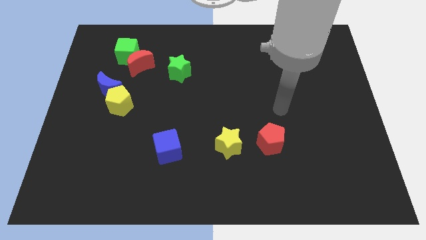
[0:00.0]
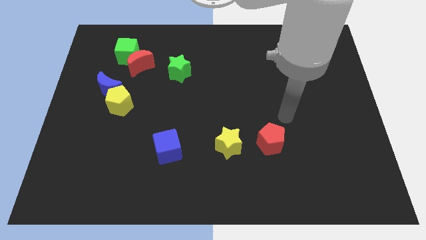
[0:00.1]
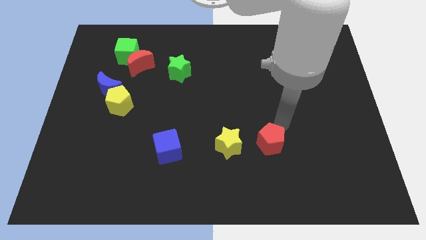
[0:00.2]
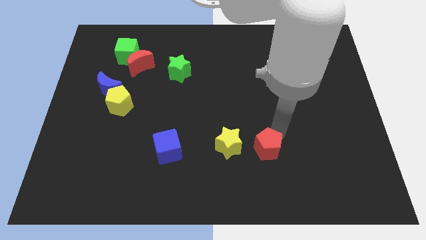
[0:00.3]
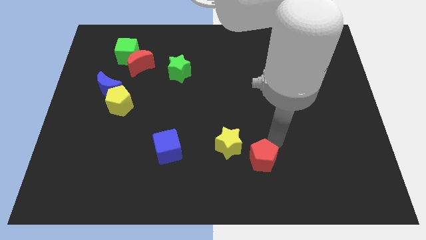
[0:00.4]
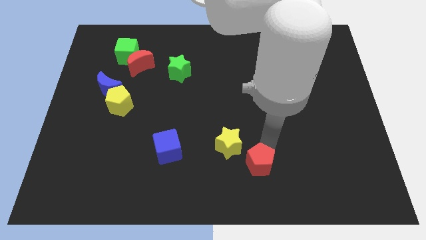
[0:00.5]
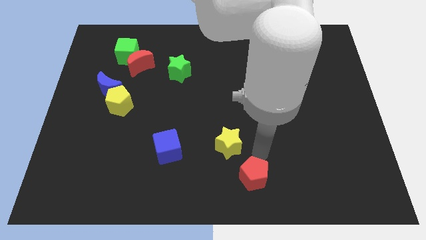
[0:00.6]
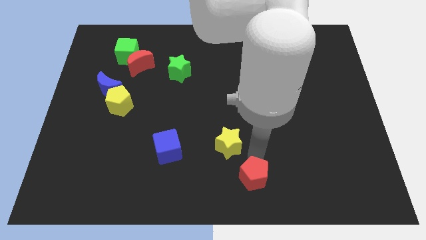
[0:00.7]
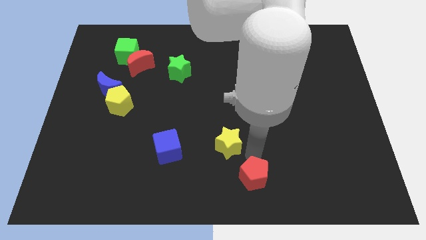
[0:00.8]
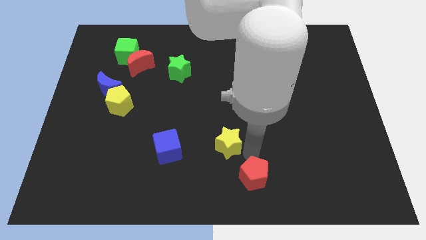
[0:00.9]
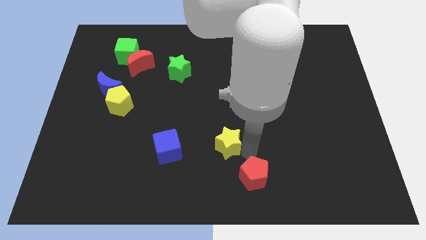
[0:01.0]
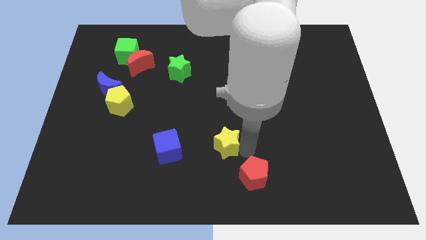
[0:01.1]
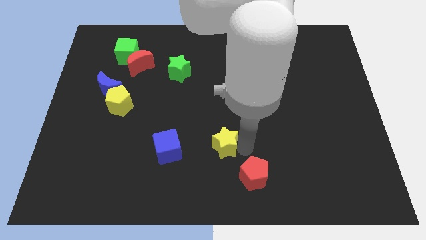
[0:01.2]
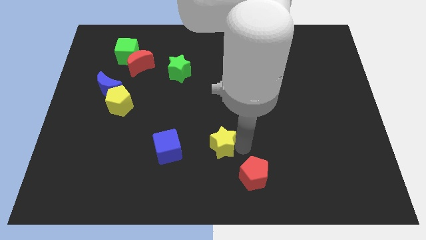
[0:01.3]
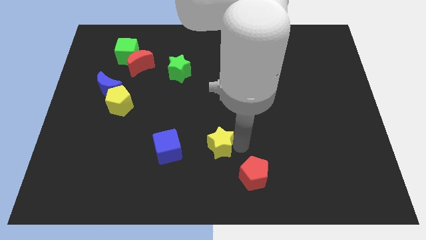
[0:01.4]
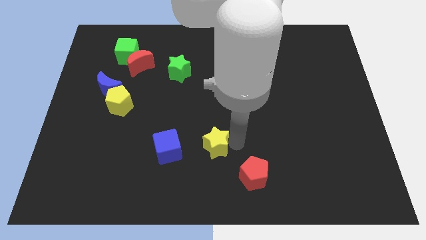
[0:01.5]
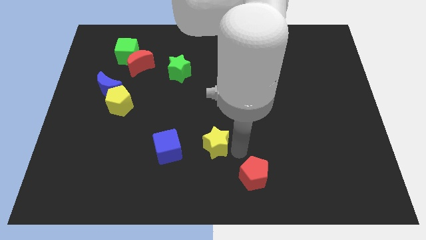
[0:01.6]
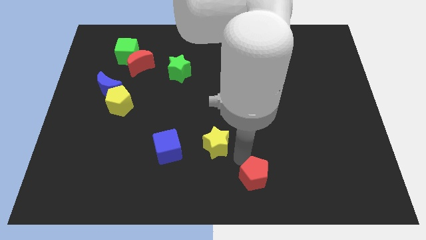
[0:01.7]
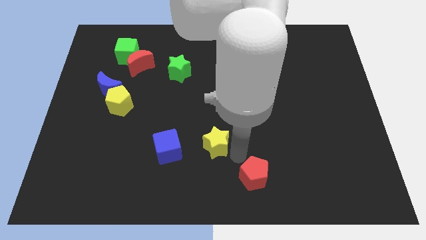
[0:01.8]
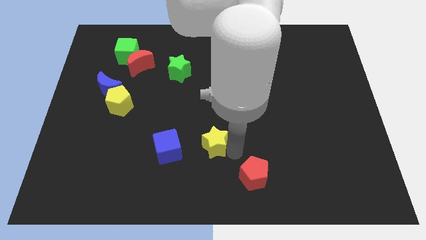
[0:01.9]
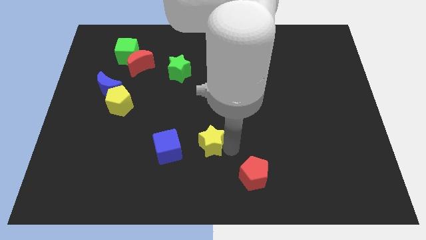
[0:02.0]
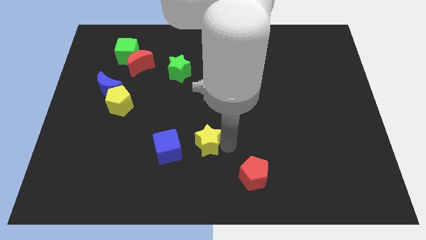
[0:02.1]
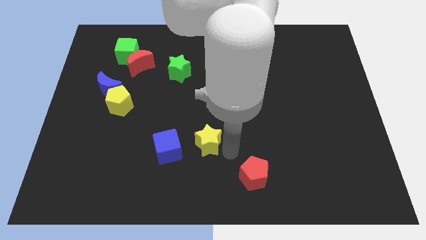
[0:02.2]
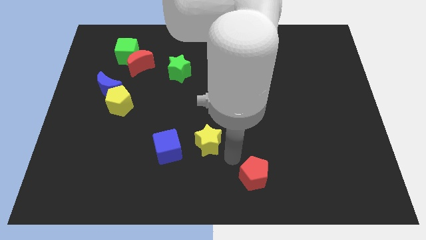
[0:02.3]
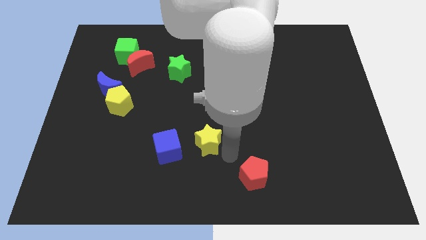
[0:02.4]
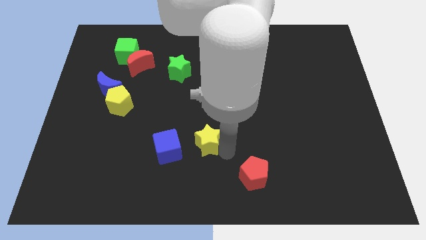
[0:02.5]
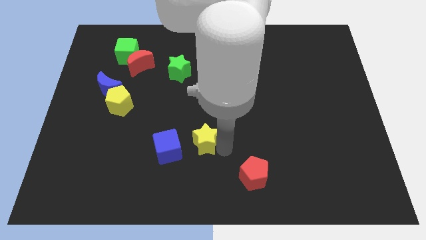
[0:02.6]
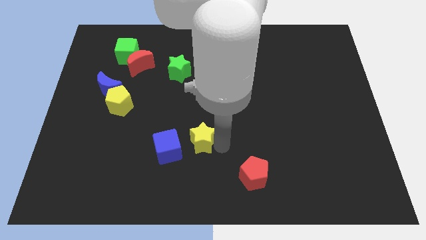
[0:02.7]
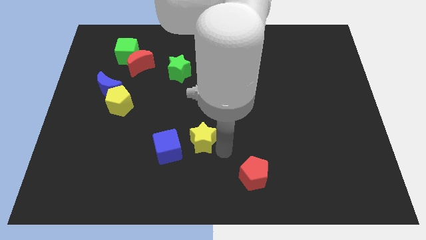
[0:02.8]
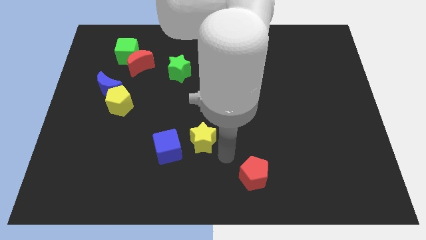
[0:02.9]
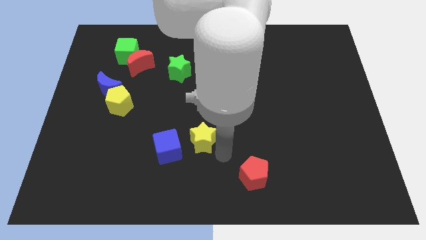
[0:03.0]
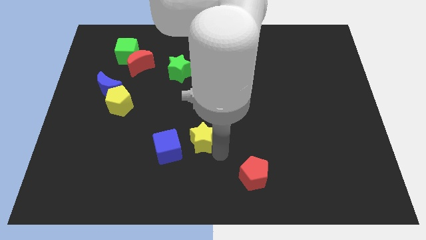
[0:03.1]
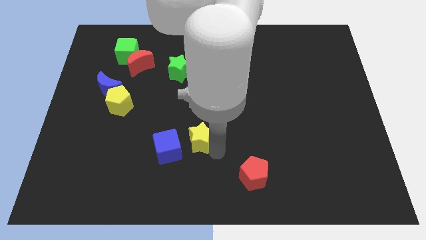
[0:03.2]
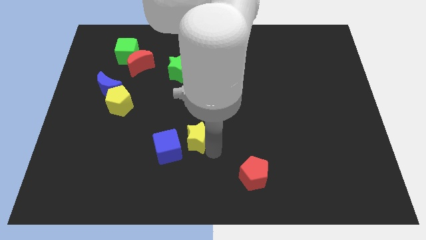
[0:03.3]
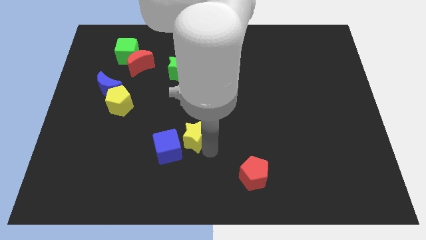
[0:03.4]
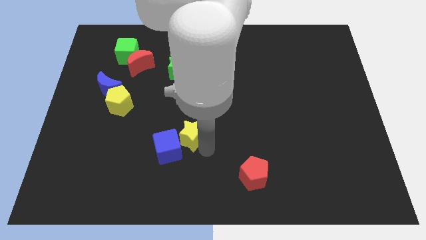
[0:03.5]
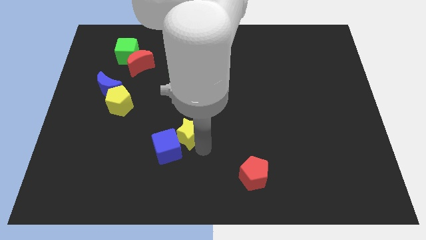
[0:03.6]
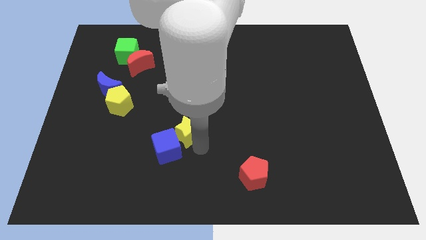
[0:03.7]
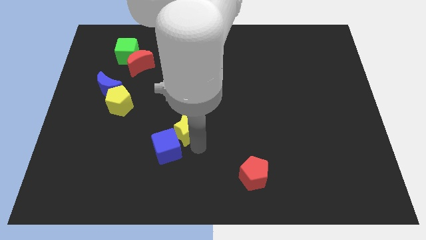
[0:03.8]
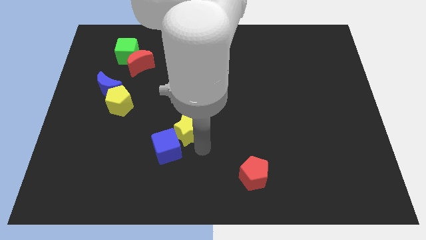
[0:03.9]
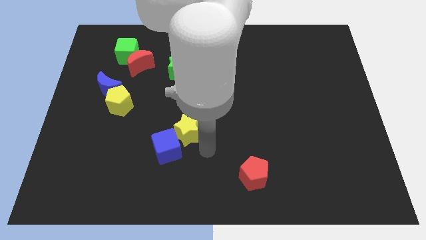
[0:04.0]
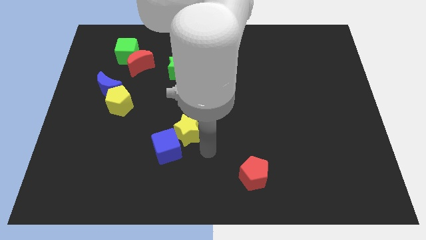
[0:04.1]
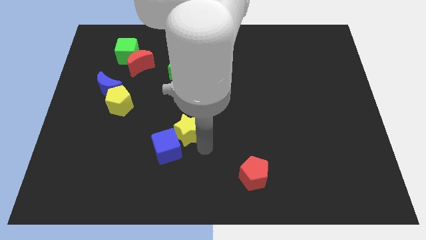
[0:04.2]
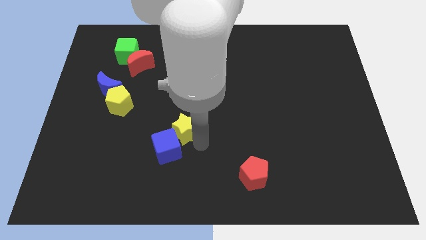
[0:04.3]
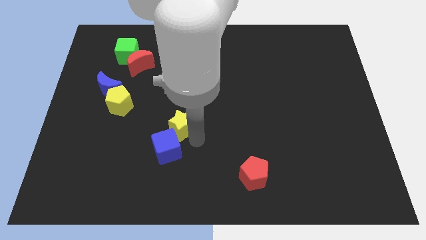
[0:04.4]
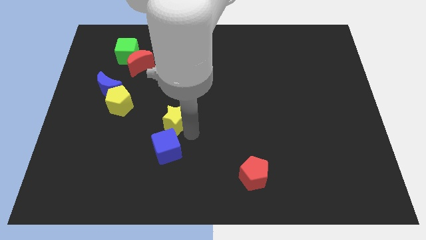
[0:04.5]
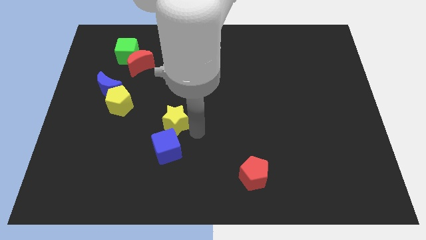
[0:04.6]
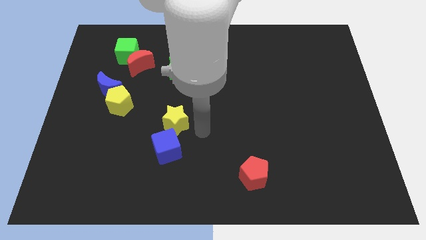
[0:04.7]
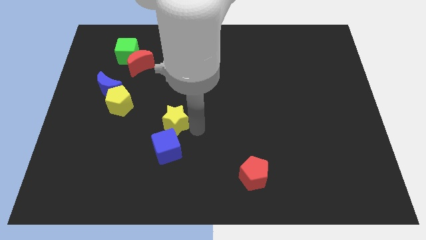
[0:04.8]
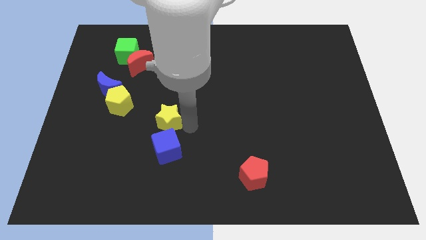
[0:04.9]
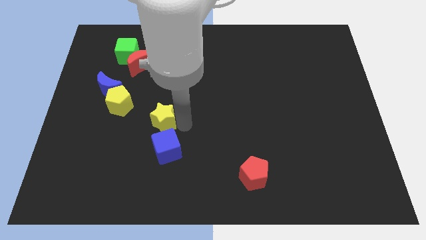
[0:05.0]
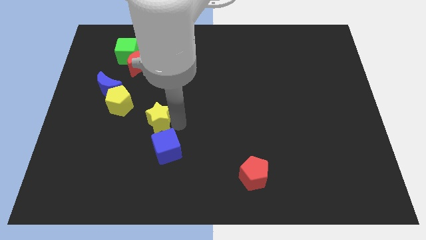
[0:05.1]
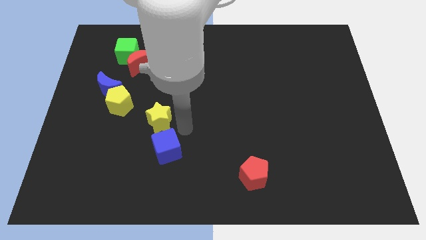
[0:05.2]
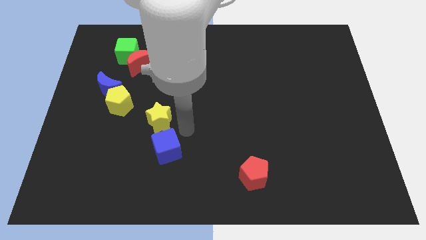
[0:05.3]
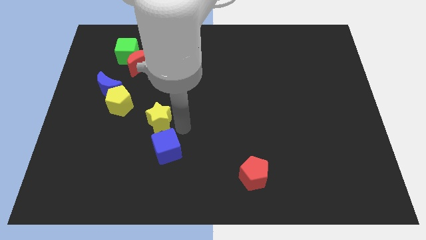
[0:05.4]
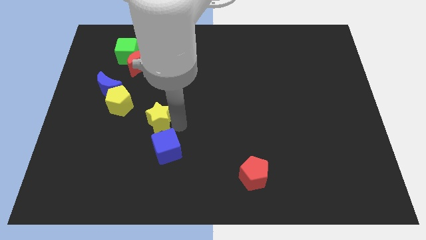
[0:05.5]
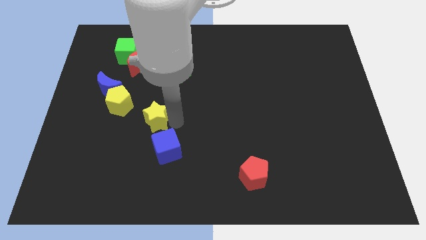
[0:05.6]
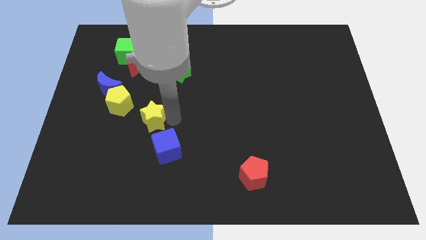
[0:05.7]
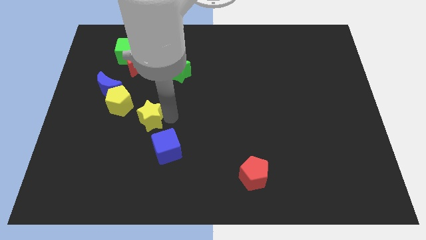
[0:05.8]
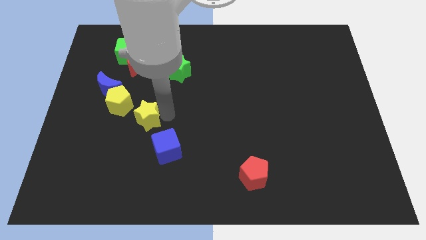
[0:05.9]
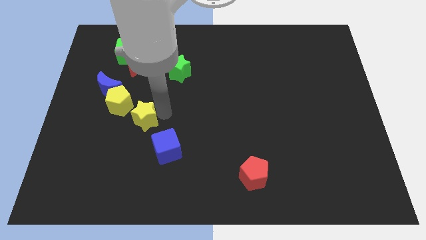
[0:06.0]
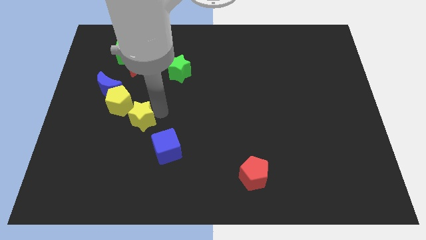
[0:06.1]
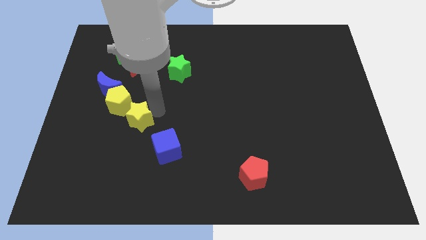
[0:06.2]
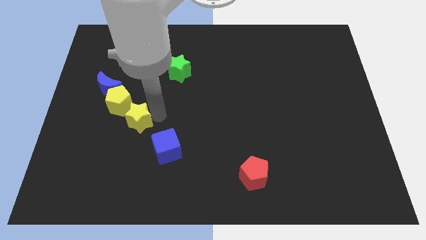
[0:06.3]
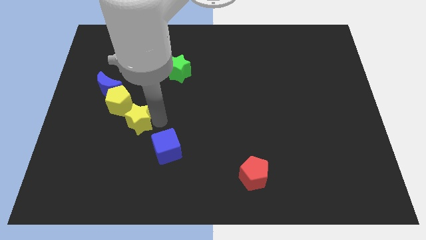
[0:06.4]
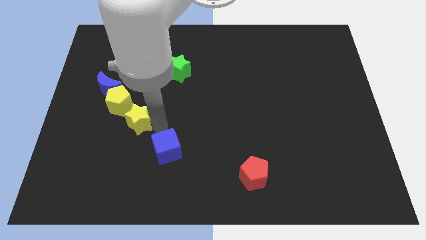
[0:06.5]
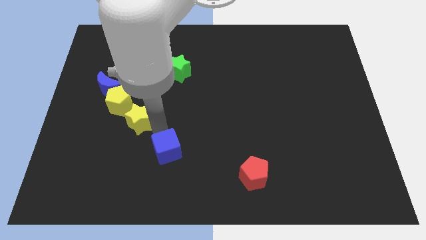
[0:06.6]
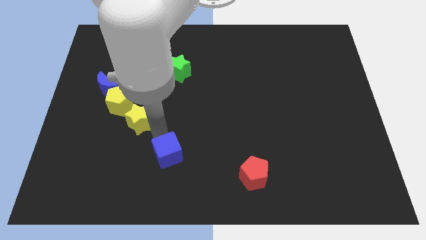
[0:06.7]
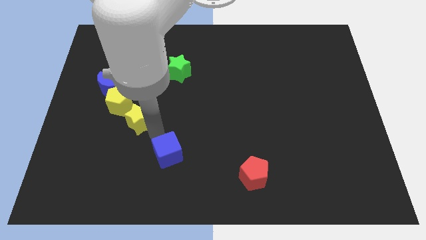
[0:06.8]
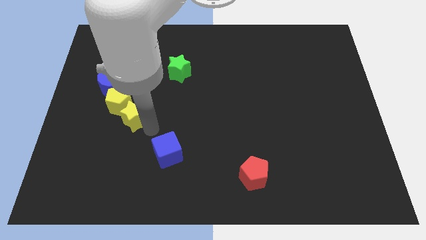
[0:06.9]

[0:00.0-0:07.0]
push the yellow star close to the yellow pentagon

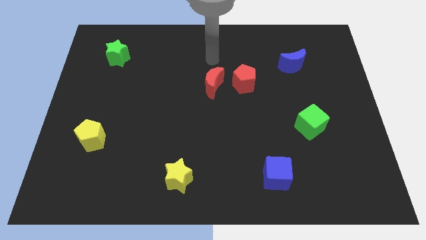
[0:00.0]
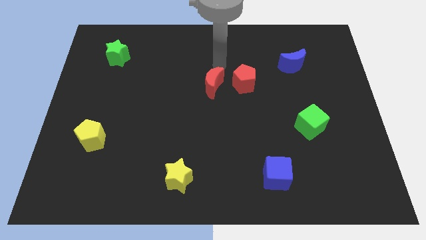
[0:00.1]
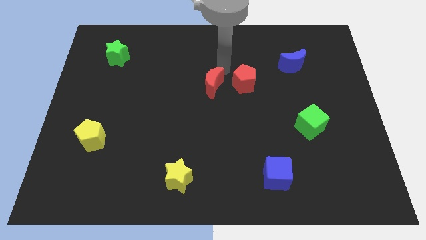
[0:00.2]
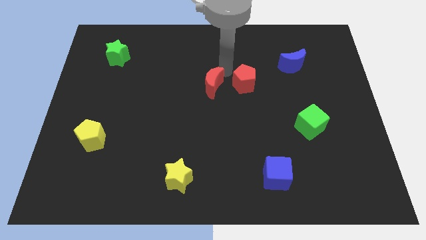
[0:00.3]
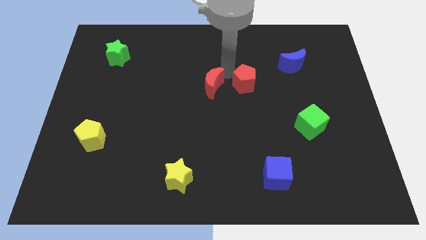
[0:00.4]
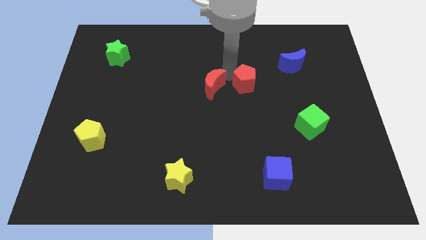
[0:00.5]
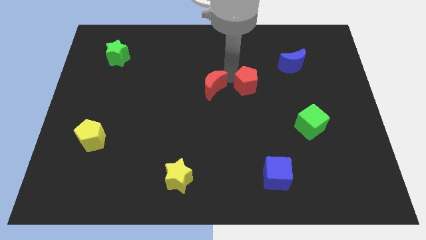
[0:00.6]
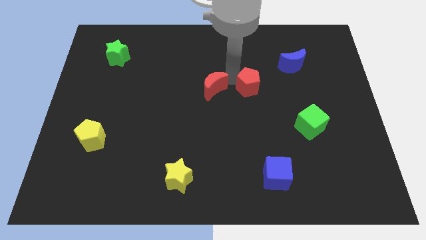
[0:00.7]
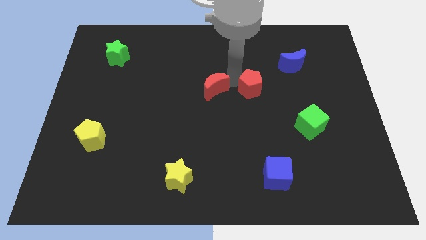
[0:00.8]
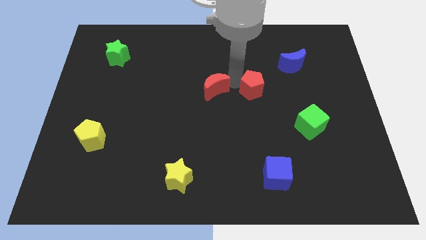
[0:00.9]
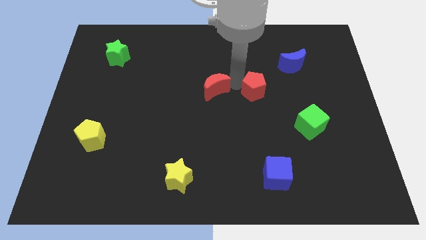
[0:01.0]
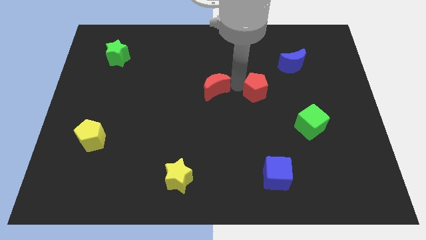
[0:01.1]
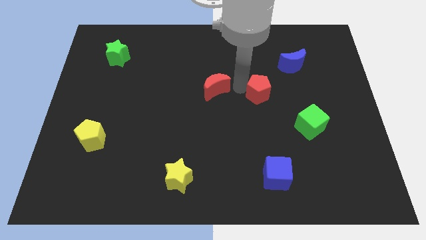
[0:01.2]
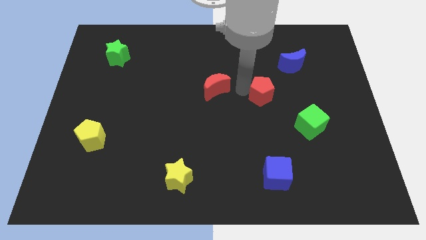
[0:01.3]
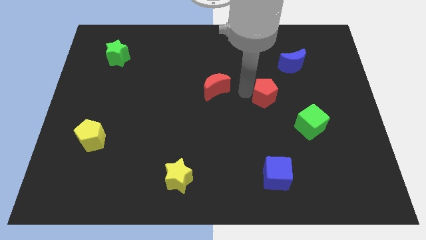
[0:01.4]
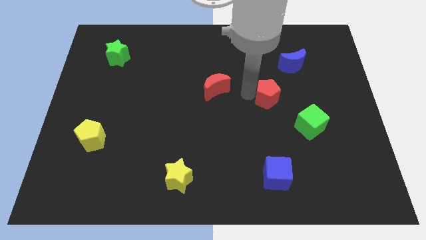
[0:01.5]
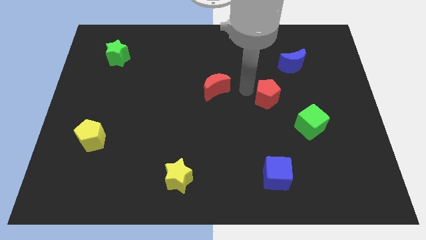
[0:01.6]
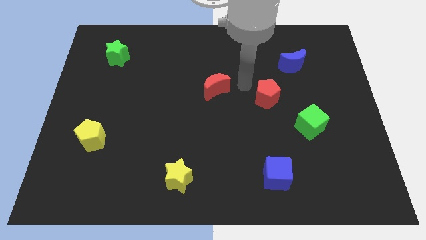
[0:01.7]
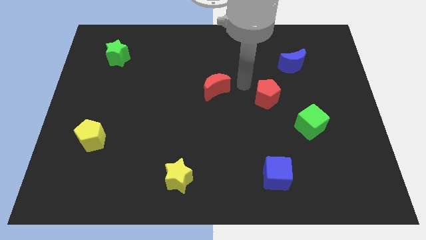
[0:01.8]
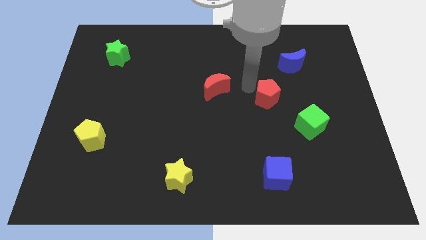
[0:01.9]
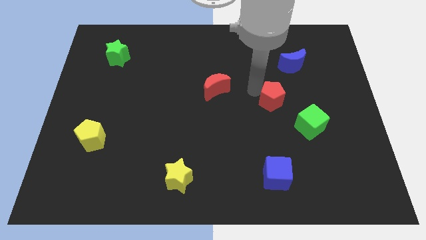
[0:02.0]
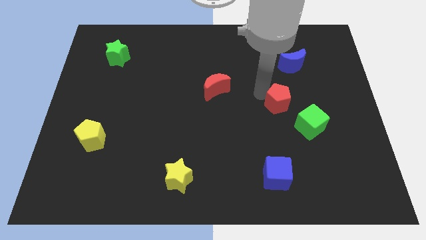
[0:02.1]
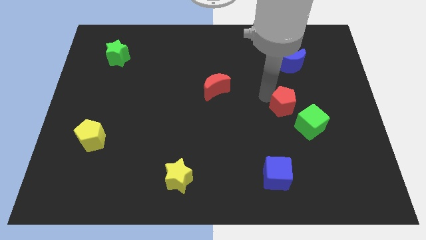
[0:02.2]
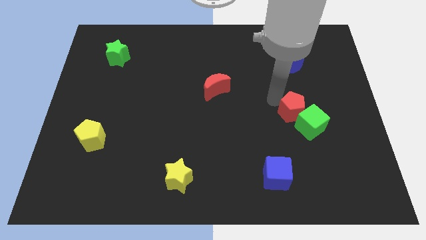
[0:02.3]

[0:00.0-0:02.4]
move the red pentagon to the green cube
